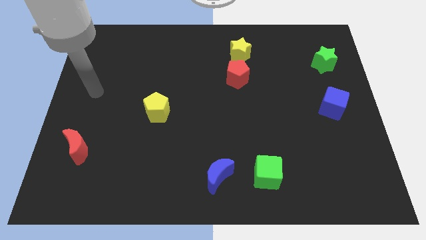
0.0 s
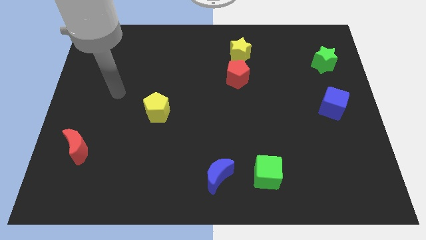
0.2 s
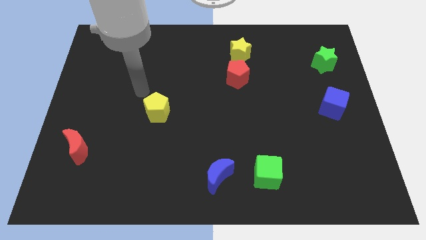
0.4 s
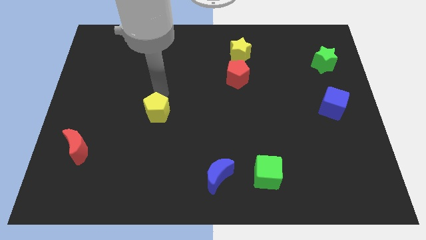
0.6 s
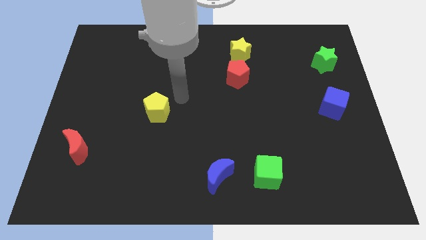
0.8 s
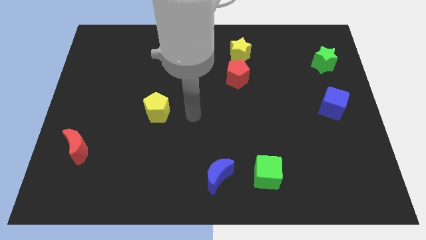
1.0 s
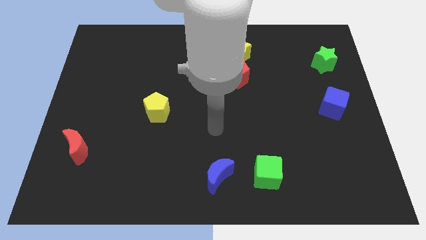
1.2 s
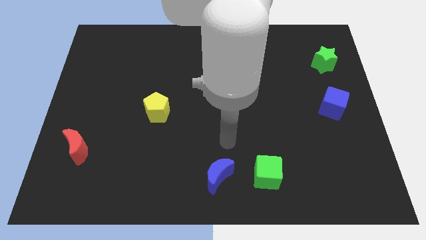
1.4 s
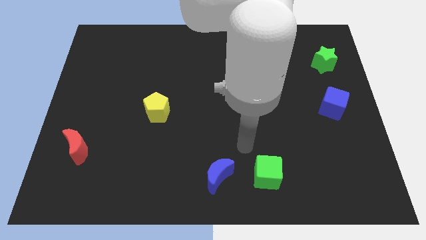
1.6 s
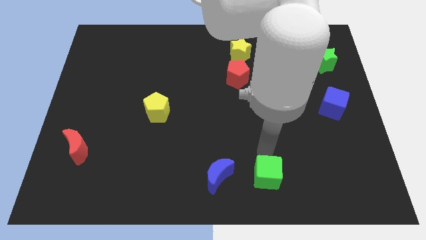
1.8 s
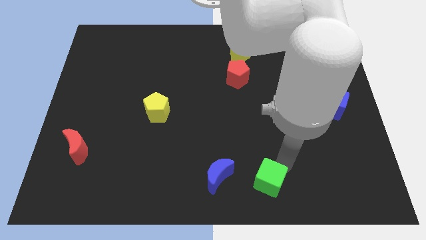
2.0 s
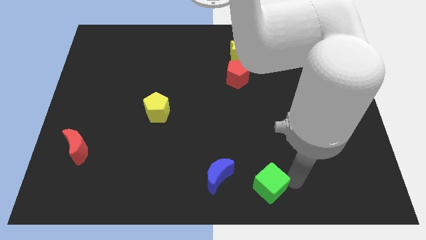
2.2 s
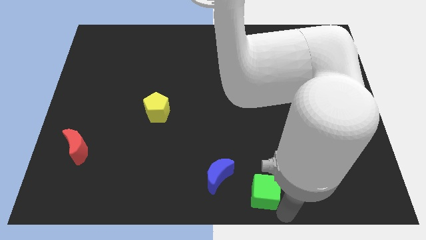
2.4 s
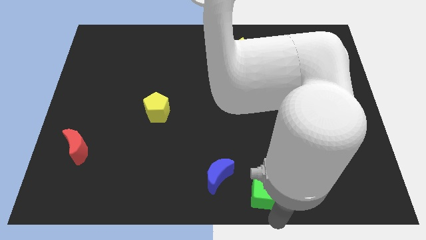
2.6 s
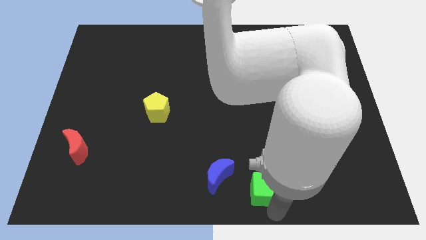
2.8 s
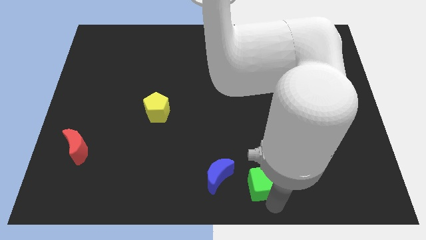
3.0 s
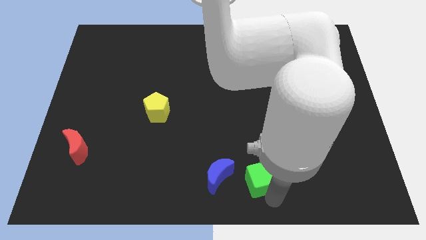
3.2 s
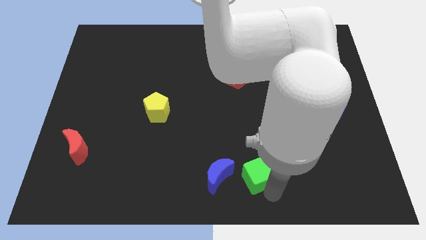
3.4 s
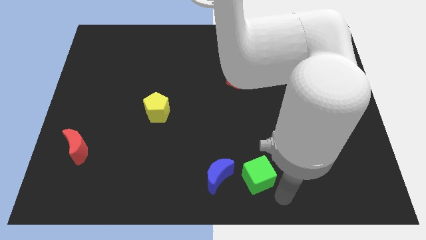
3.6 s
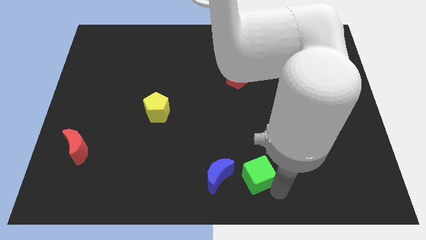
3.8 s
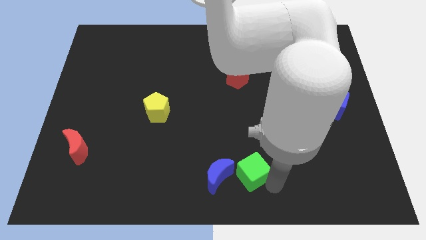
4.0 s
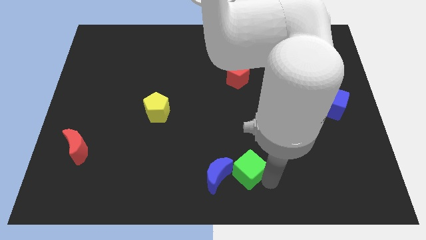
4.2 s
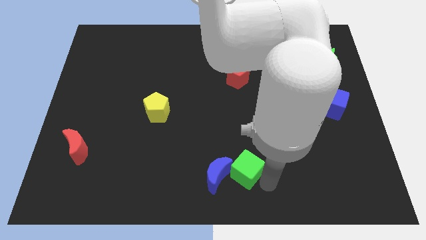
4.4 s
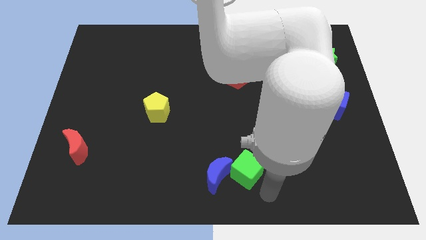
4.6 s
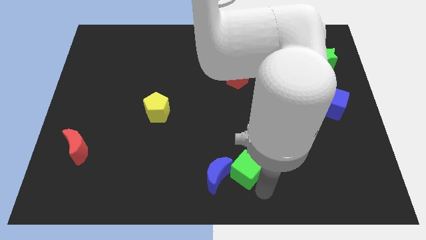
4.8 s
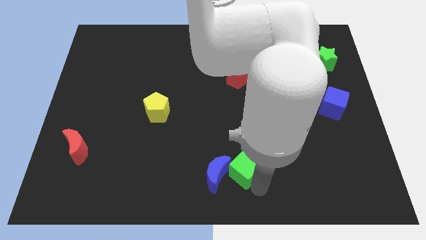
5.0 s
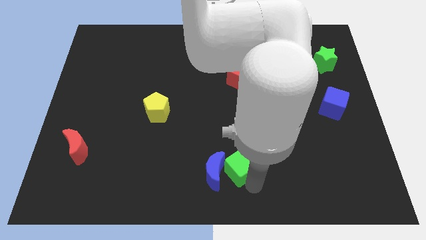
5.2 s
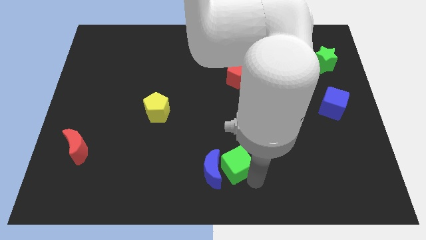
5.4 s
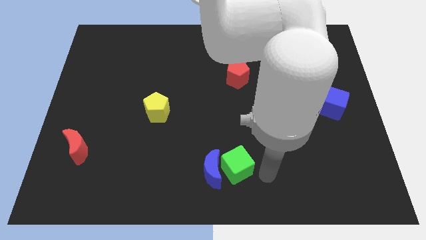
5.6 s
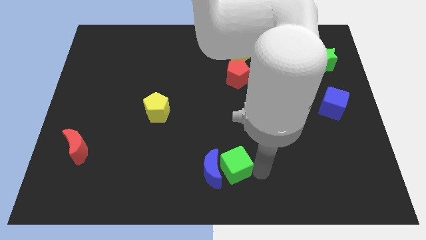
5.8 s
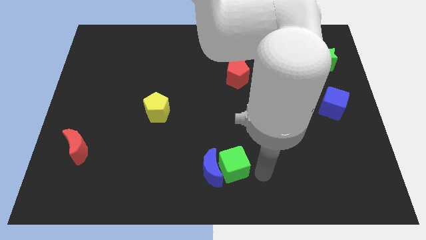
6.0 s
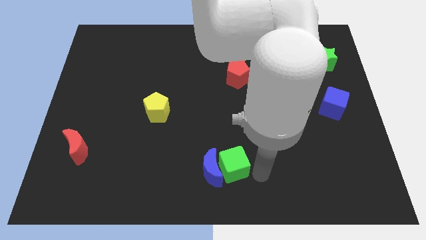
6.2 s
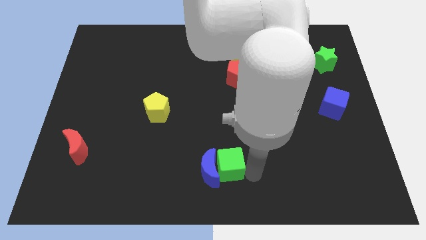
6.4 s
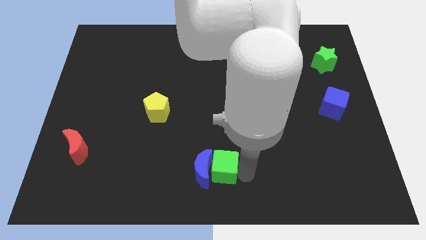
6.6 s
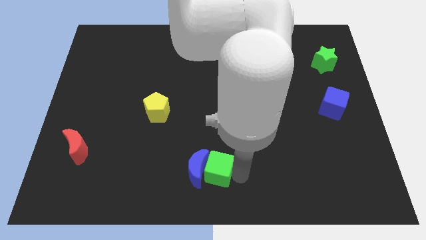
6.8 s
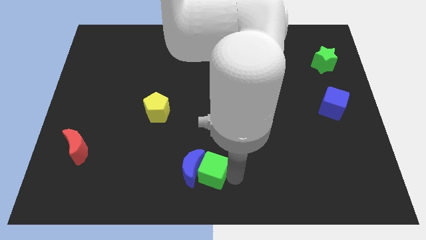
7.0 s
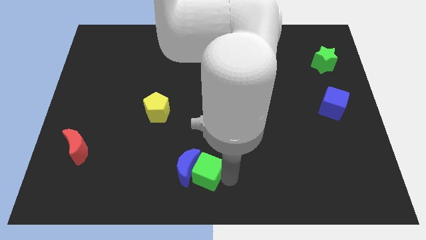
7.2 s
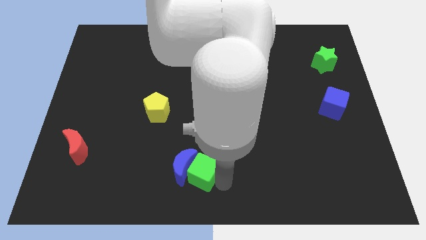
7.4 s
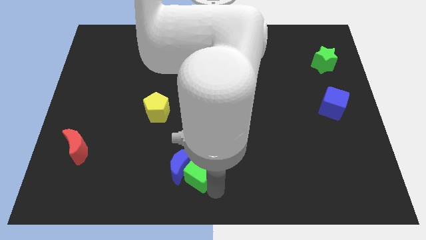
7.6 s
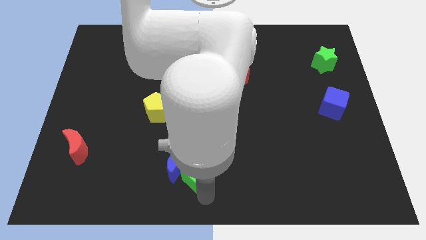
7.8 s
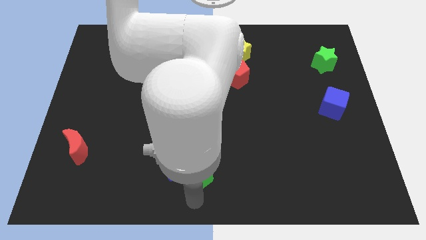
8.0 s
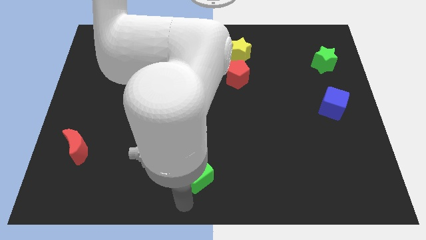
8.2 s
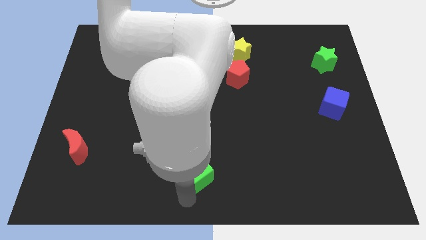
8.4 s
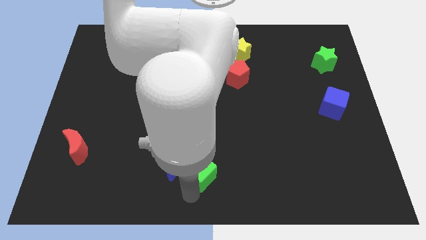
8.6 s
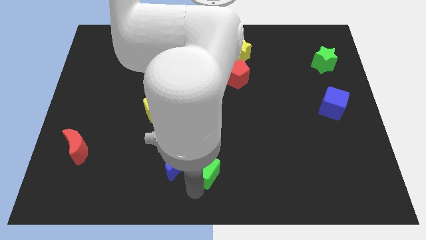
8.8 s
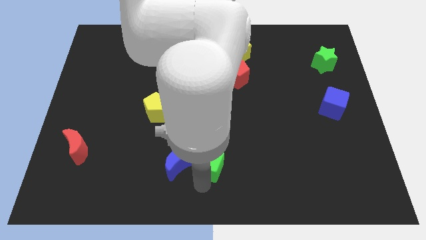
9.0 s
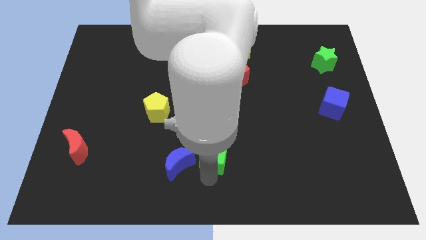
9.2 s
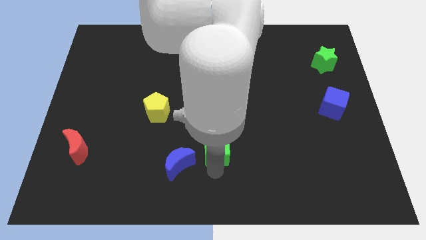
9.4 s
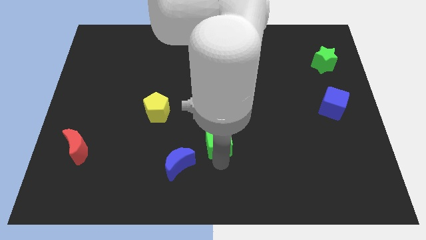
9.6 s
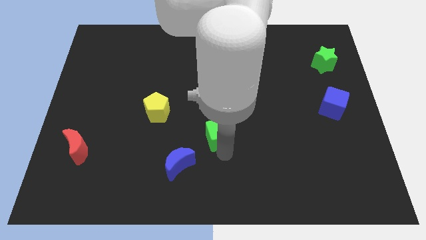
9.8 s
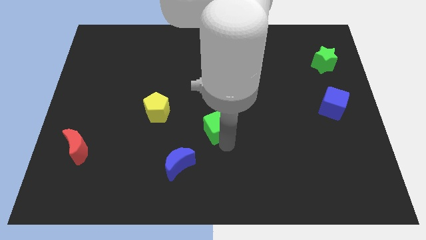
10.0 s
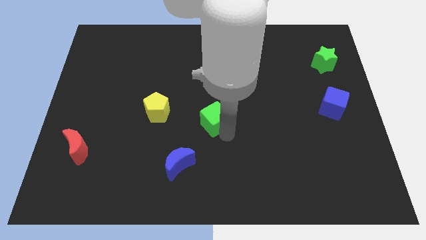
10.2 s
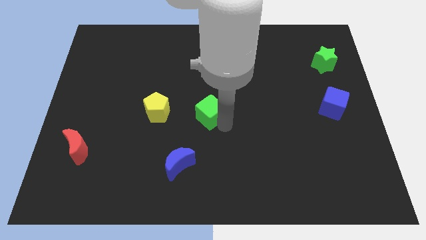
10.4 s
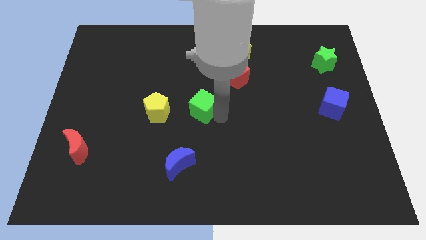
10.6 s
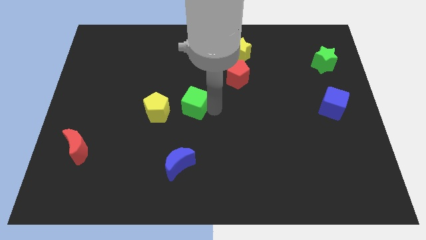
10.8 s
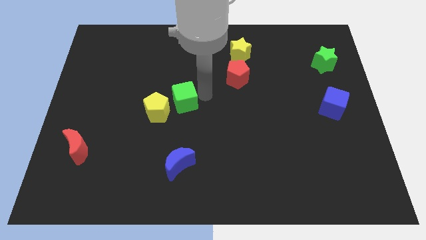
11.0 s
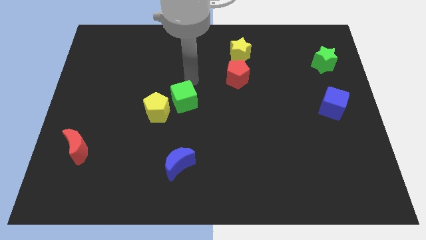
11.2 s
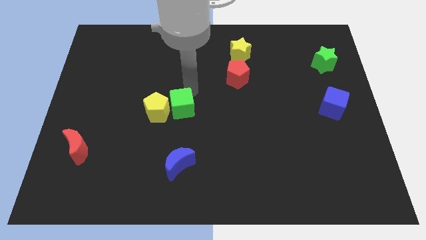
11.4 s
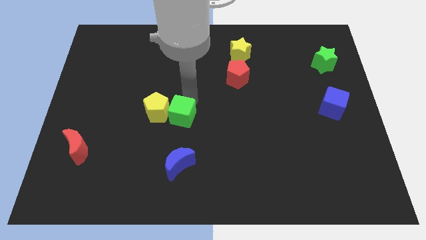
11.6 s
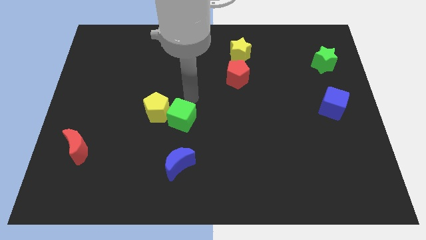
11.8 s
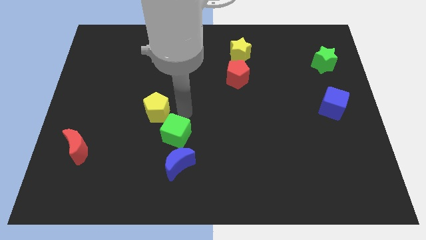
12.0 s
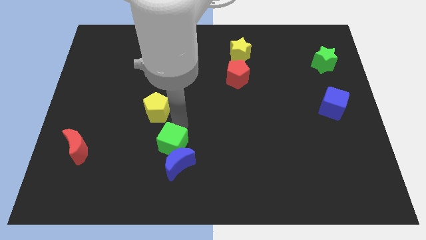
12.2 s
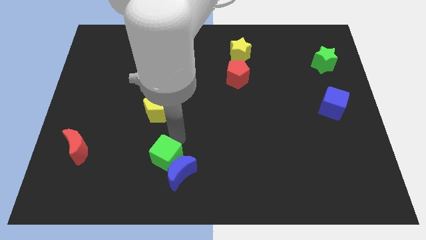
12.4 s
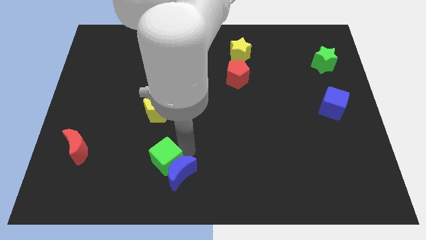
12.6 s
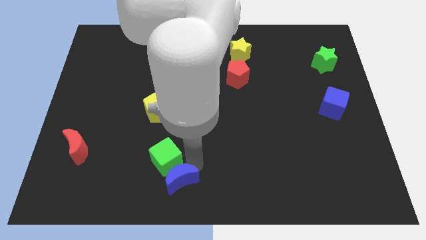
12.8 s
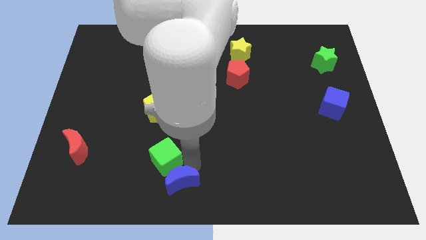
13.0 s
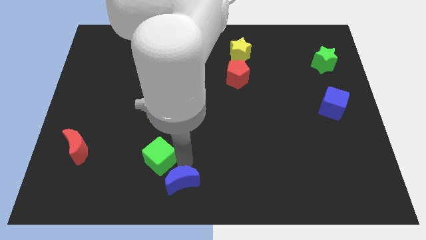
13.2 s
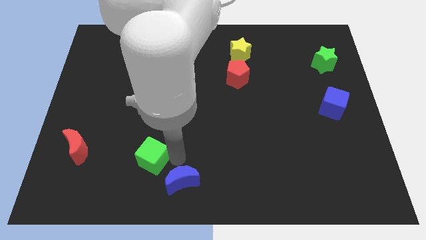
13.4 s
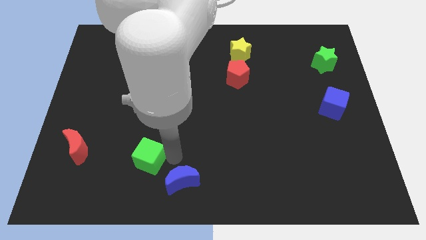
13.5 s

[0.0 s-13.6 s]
push the green cube just right of the red moon

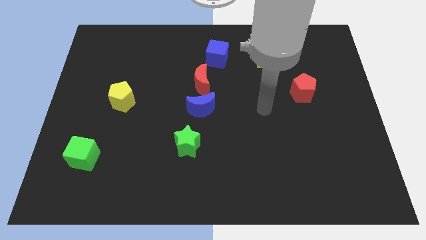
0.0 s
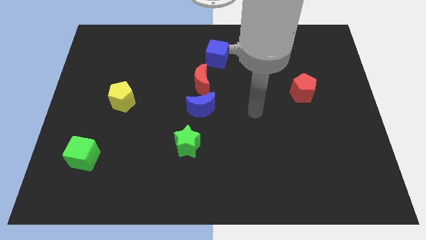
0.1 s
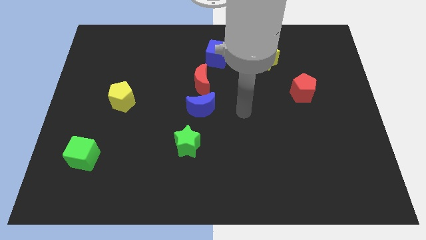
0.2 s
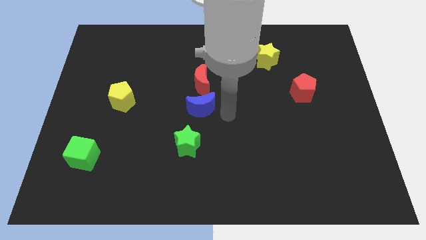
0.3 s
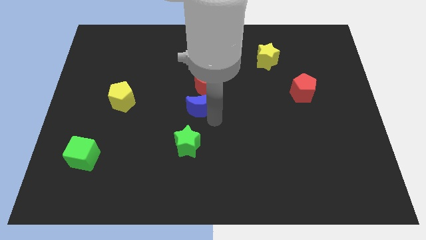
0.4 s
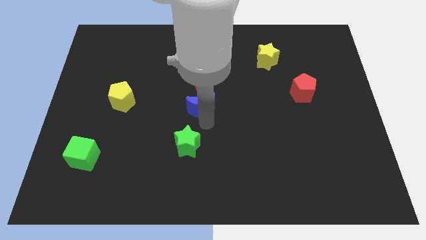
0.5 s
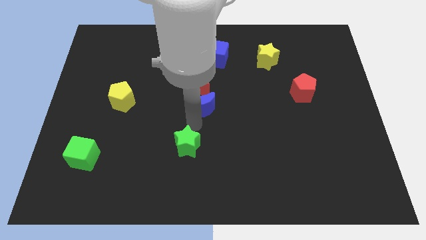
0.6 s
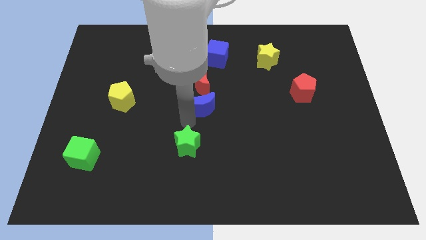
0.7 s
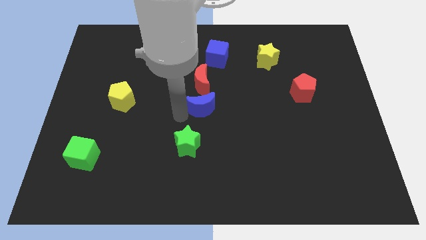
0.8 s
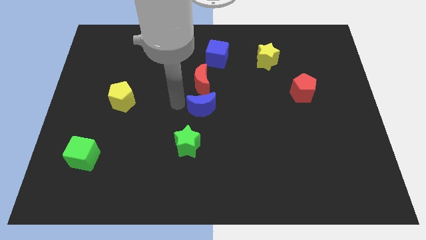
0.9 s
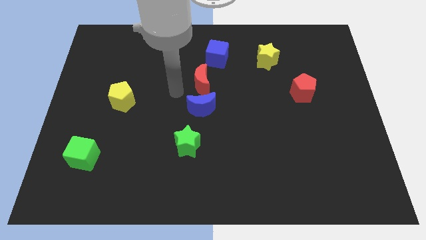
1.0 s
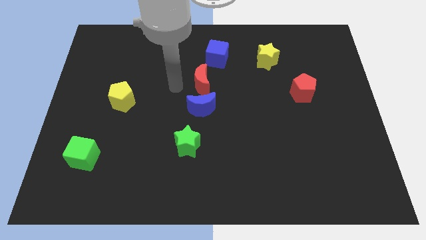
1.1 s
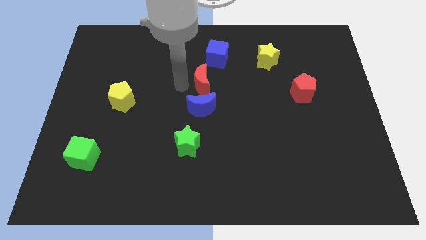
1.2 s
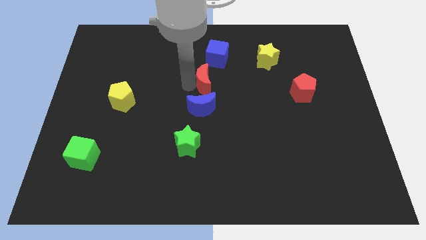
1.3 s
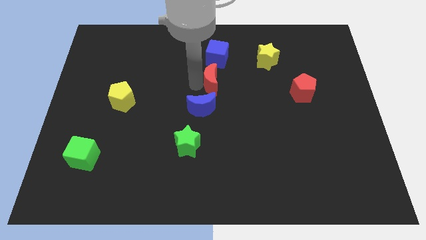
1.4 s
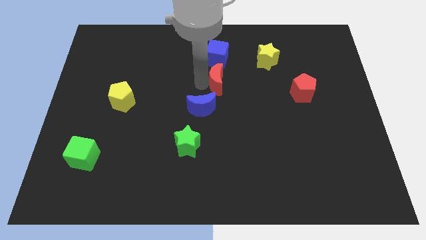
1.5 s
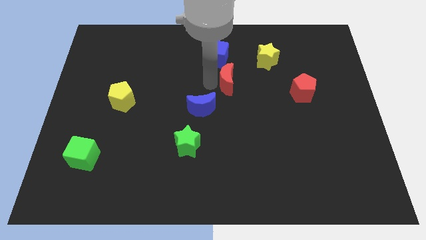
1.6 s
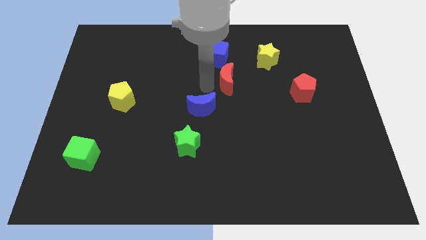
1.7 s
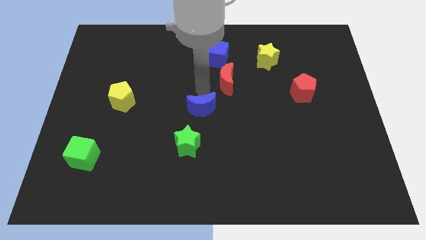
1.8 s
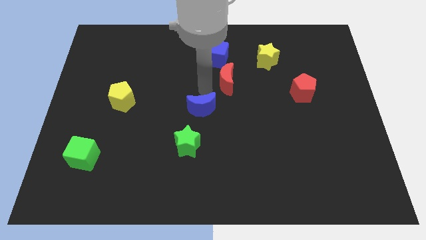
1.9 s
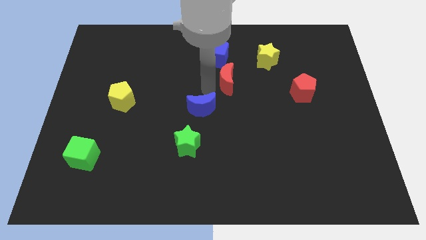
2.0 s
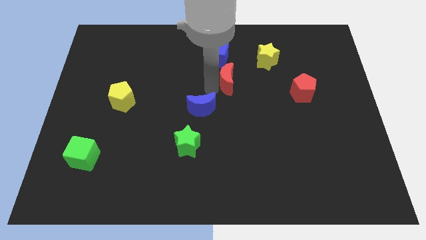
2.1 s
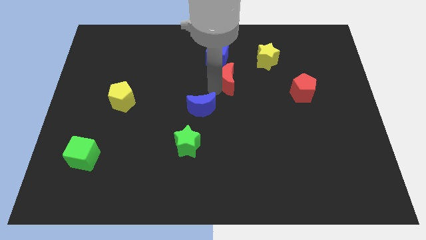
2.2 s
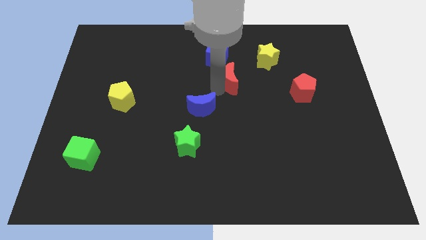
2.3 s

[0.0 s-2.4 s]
move the red moon to the bottom left side of the yellow star
